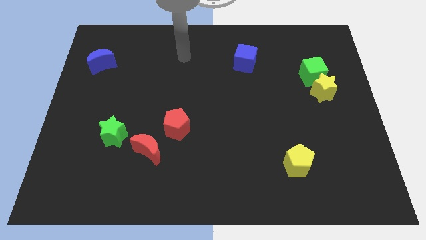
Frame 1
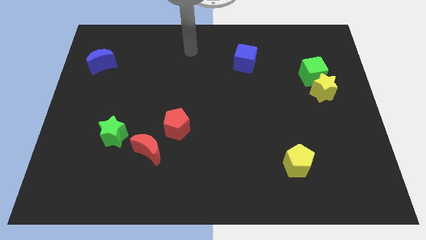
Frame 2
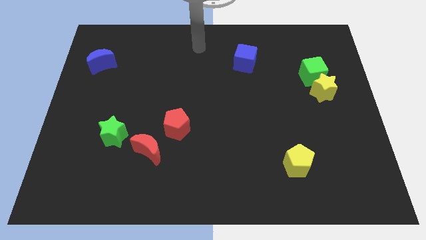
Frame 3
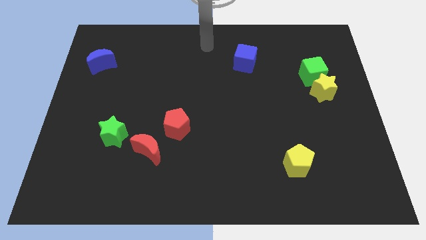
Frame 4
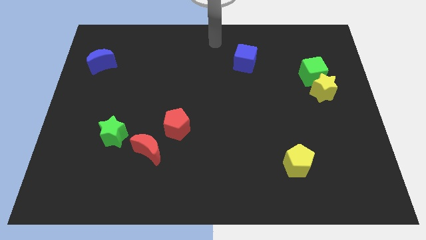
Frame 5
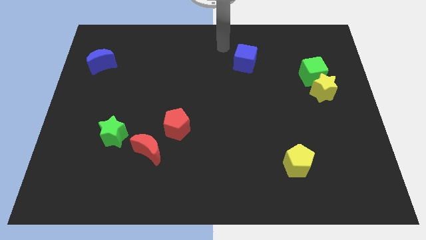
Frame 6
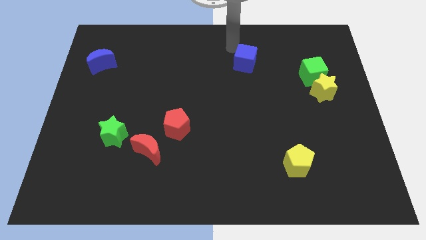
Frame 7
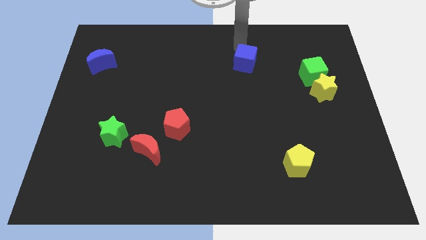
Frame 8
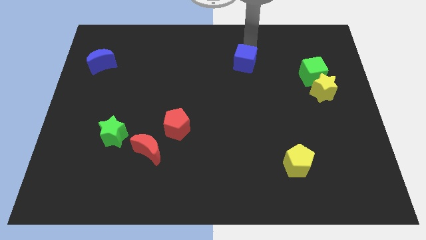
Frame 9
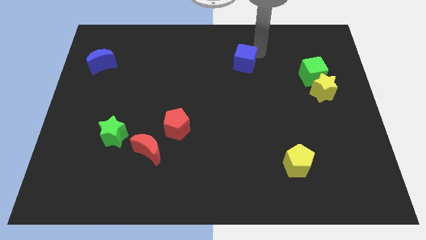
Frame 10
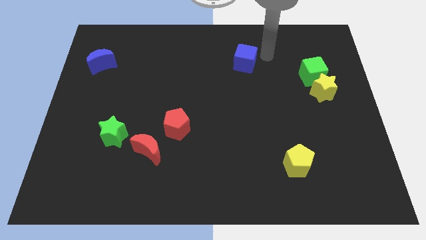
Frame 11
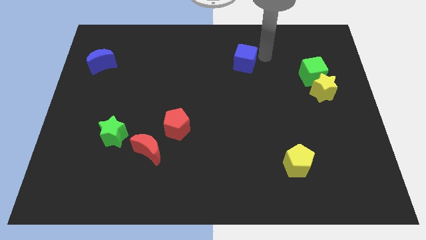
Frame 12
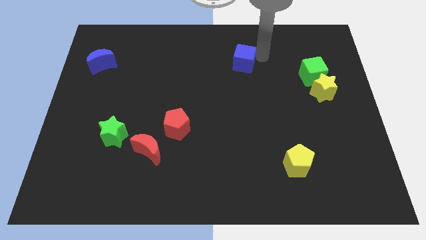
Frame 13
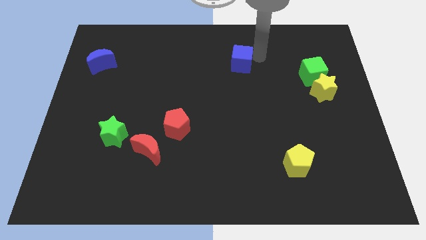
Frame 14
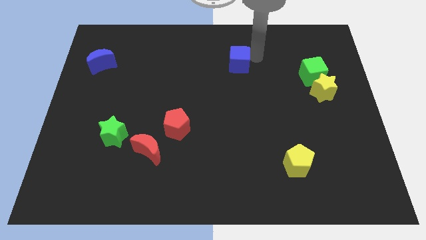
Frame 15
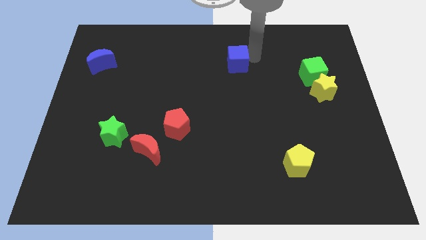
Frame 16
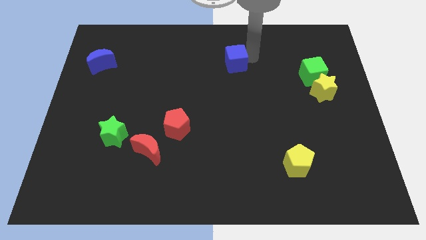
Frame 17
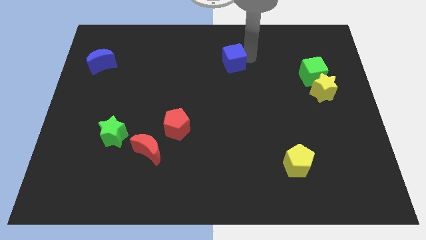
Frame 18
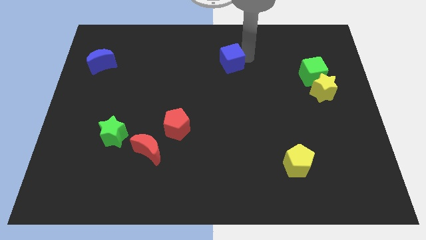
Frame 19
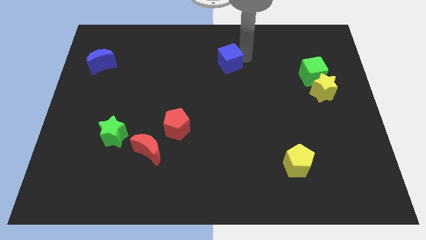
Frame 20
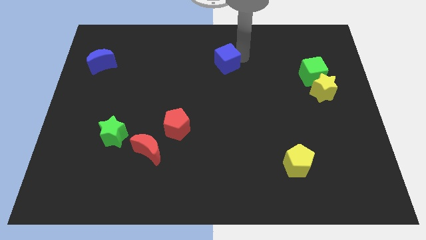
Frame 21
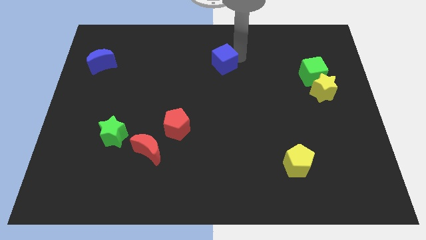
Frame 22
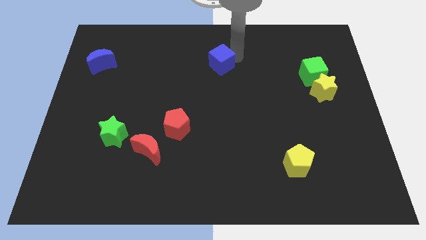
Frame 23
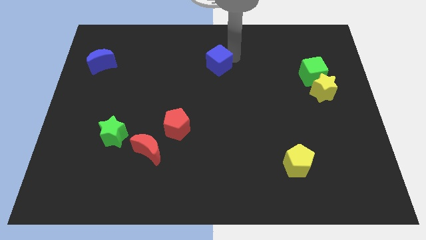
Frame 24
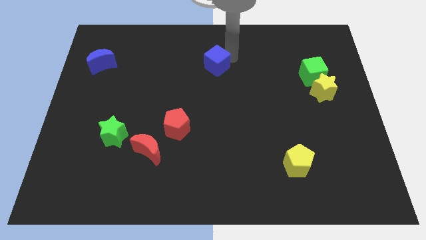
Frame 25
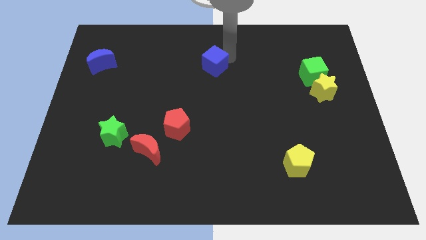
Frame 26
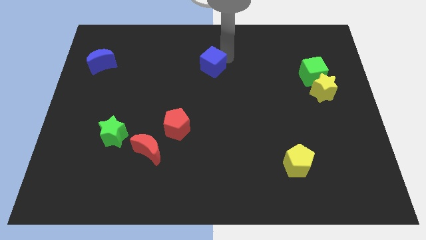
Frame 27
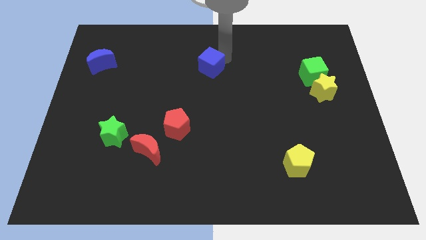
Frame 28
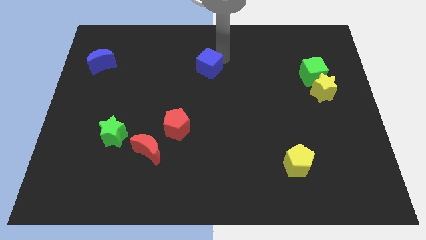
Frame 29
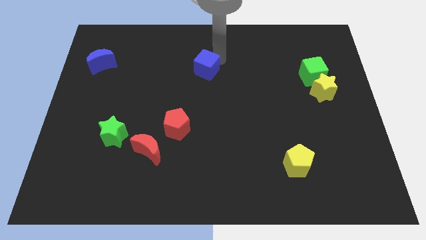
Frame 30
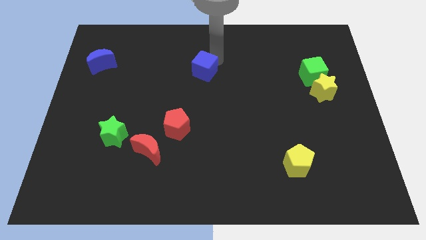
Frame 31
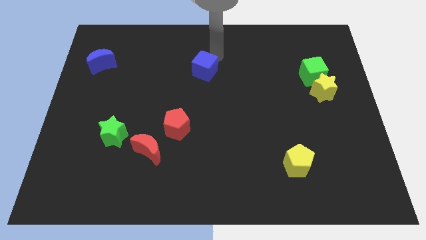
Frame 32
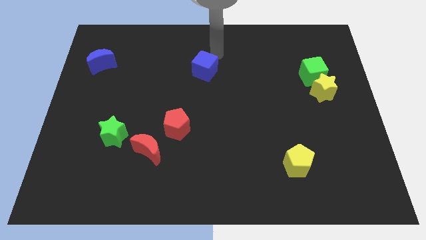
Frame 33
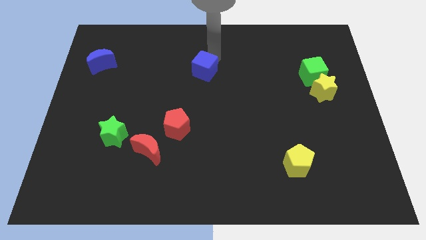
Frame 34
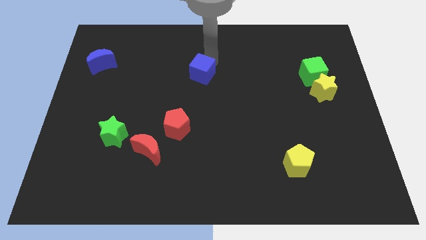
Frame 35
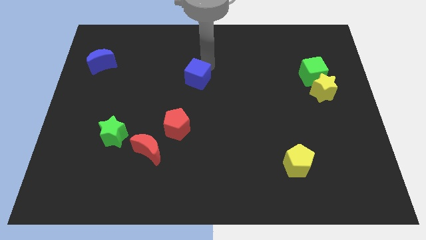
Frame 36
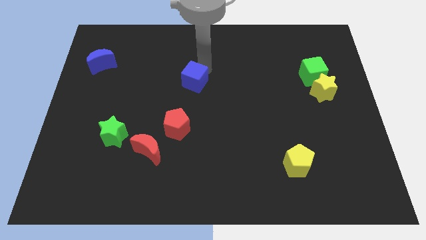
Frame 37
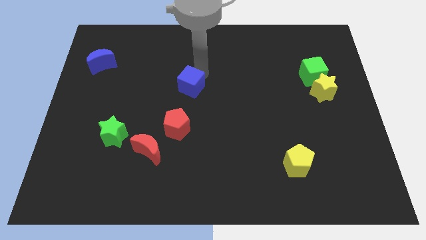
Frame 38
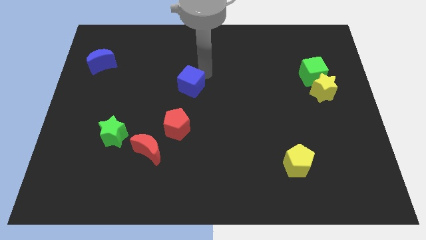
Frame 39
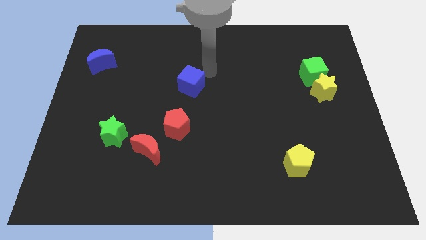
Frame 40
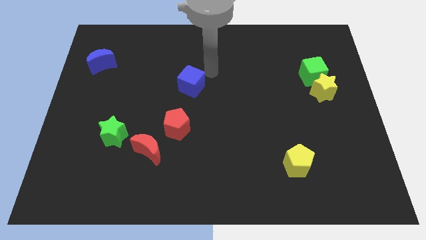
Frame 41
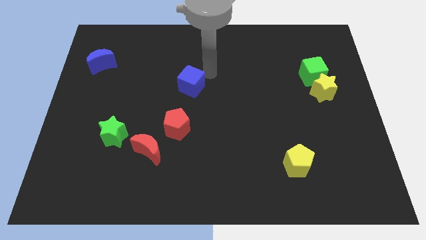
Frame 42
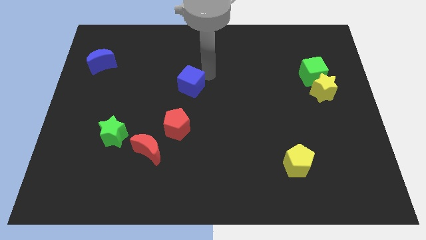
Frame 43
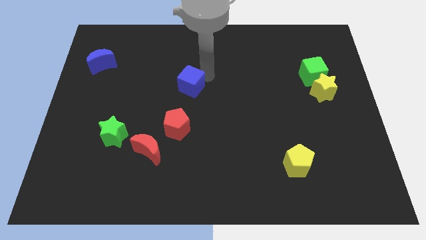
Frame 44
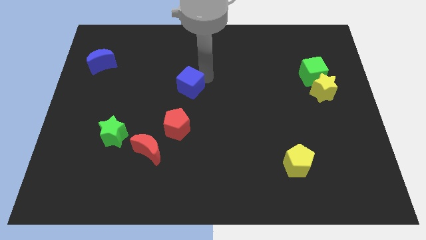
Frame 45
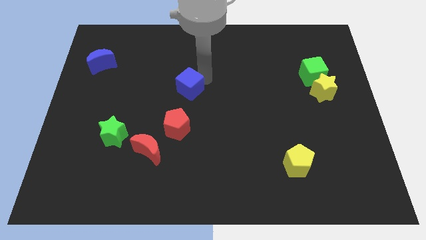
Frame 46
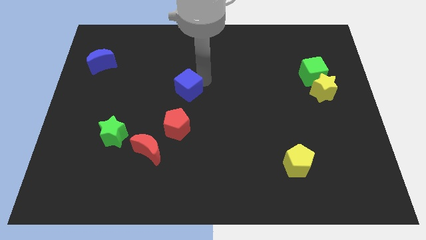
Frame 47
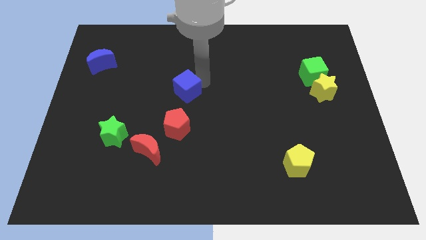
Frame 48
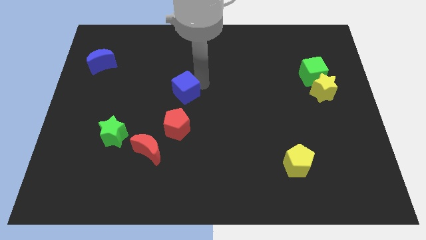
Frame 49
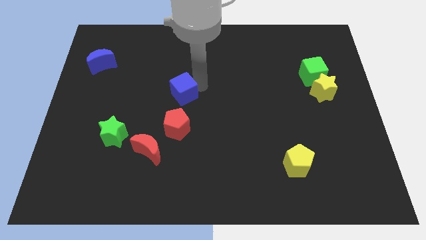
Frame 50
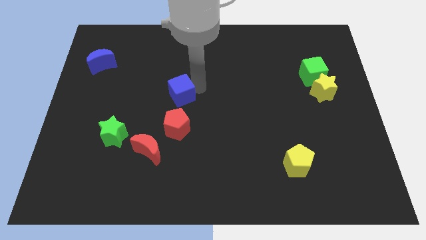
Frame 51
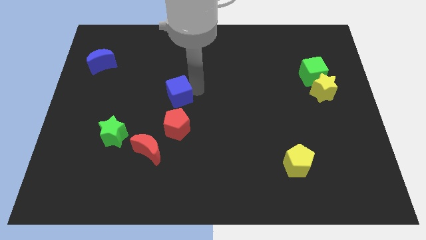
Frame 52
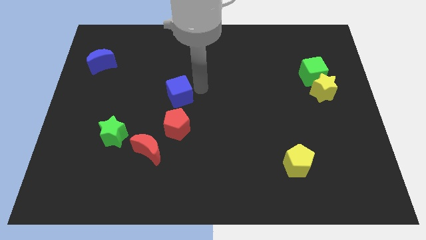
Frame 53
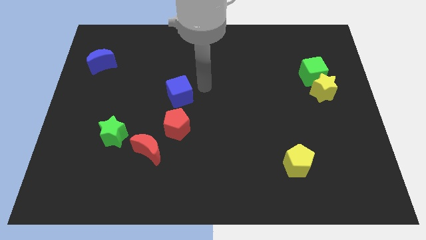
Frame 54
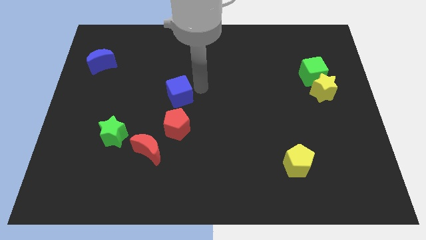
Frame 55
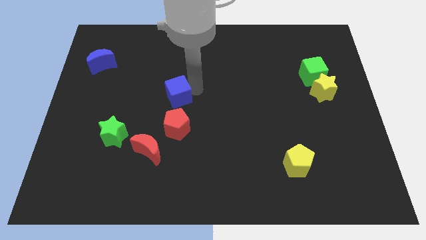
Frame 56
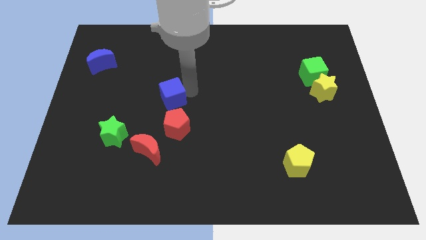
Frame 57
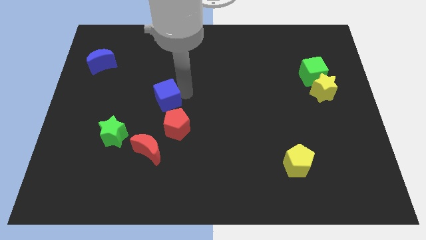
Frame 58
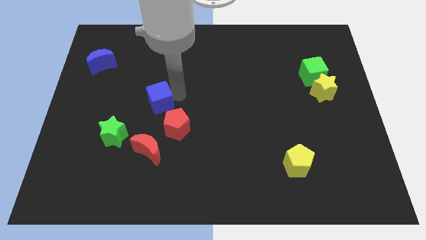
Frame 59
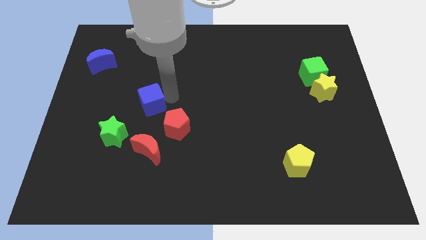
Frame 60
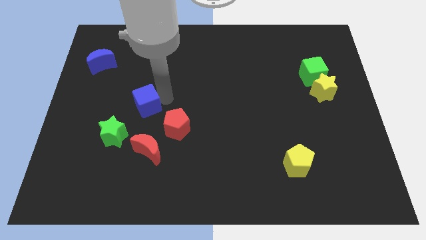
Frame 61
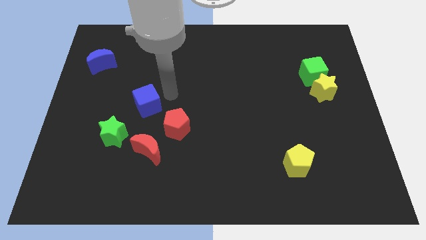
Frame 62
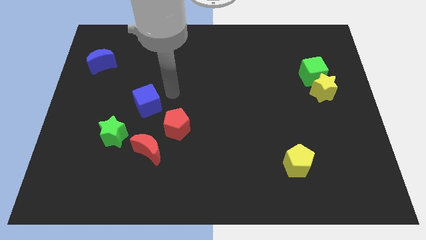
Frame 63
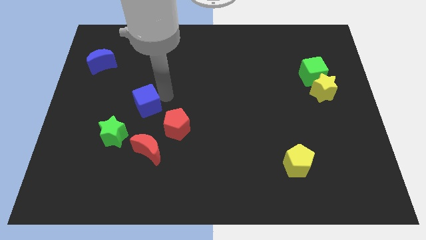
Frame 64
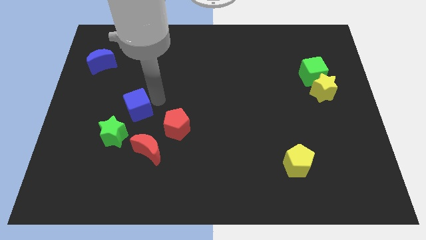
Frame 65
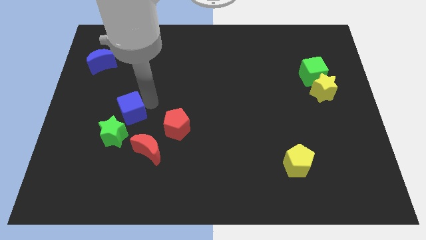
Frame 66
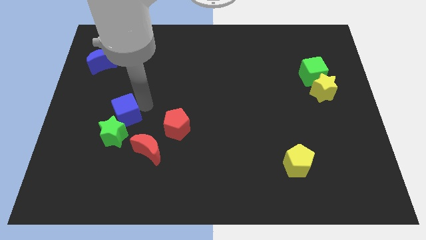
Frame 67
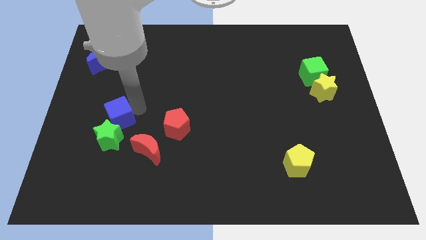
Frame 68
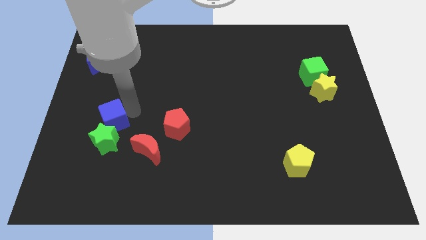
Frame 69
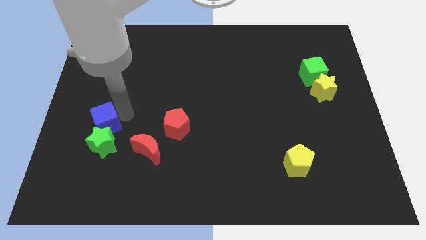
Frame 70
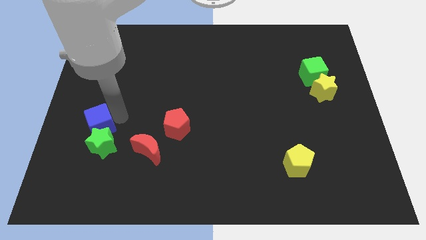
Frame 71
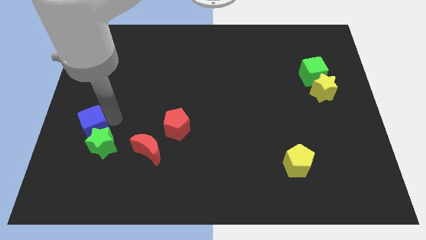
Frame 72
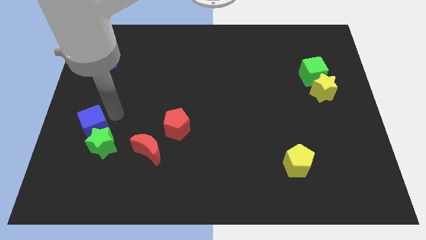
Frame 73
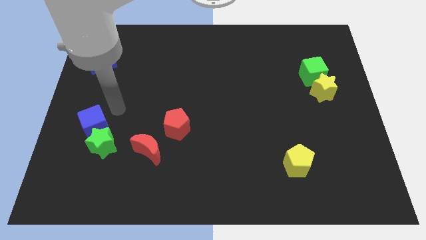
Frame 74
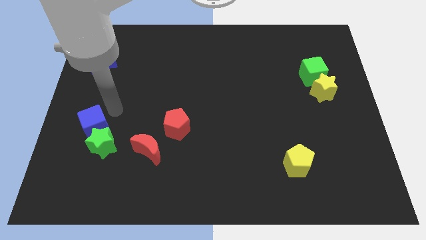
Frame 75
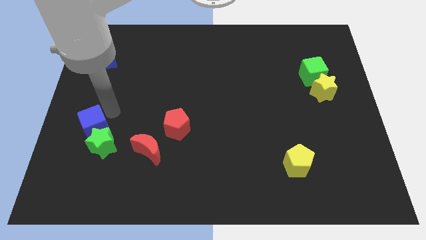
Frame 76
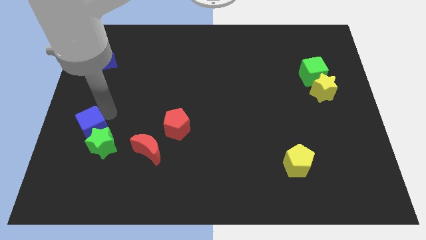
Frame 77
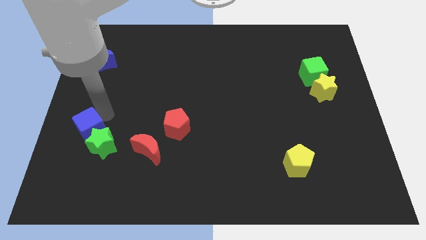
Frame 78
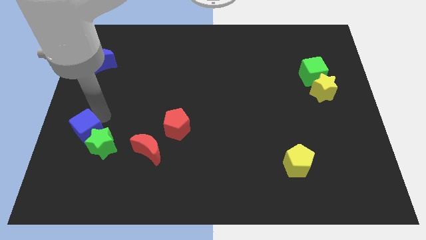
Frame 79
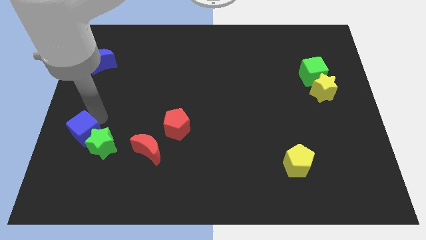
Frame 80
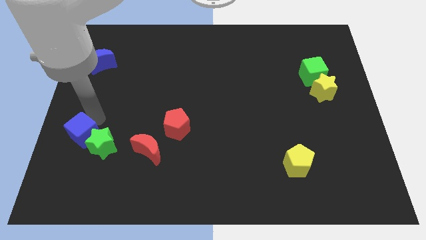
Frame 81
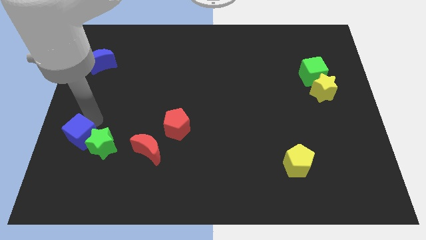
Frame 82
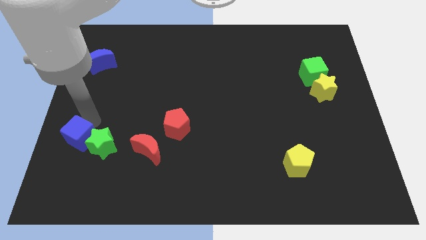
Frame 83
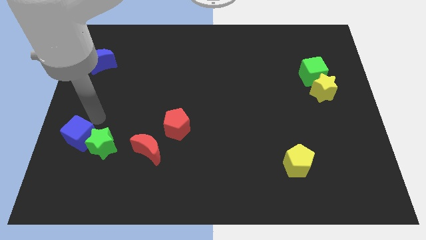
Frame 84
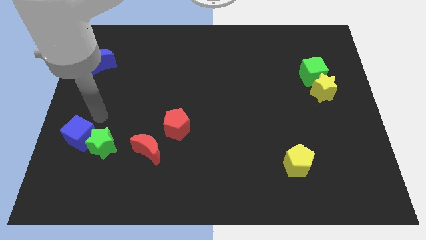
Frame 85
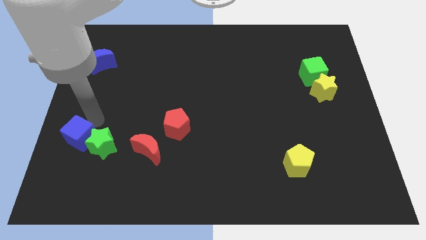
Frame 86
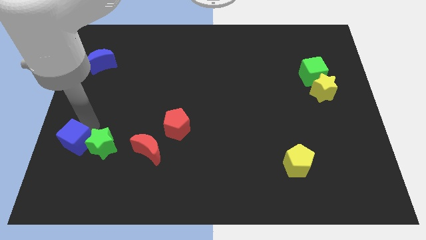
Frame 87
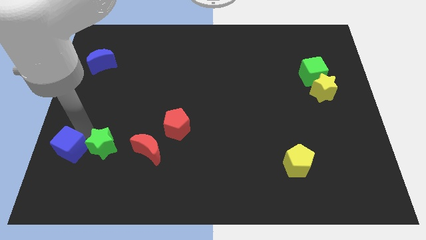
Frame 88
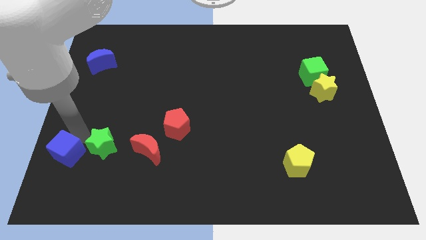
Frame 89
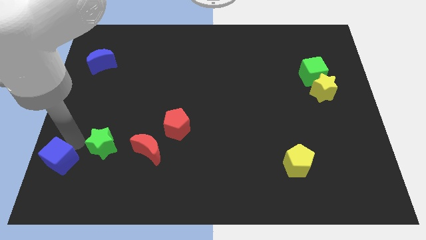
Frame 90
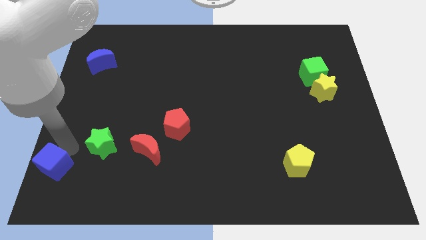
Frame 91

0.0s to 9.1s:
put the blue cube to the bottom left
